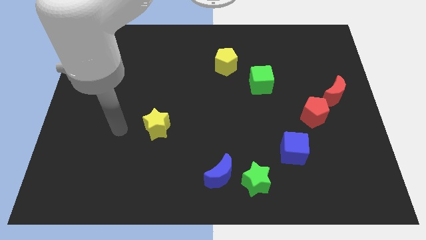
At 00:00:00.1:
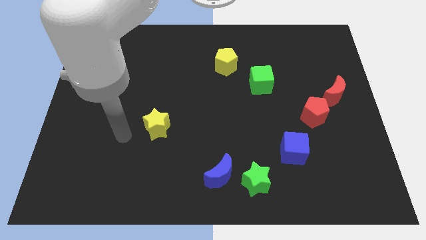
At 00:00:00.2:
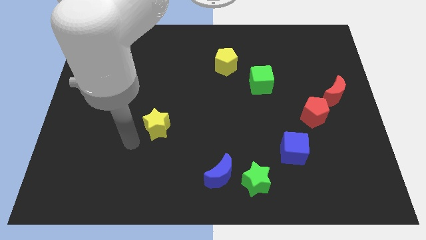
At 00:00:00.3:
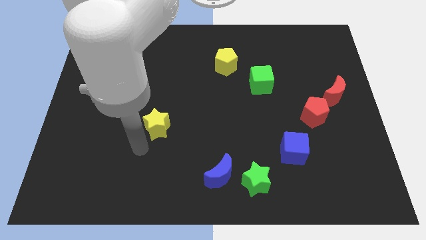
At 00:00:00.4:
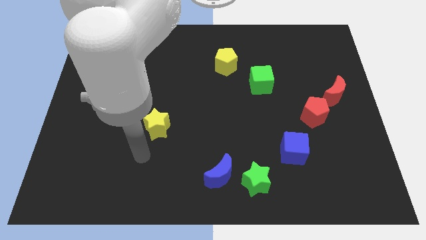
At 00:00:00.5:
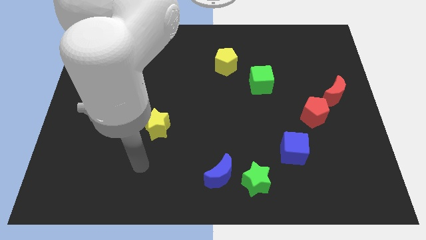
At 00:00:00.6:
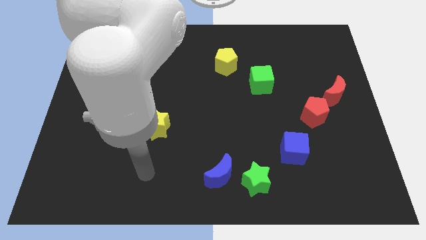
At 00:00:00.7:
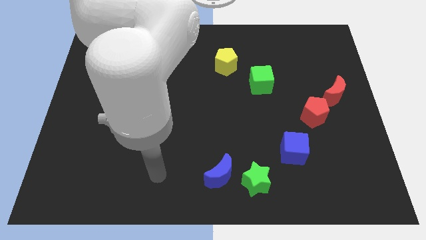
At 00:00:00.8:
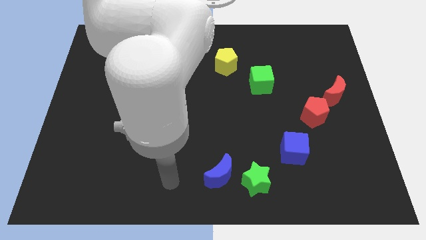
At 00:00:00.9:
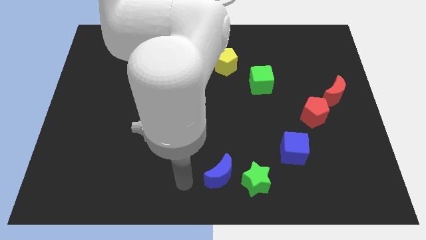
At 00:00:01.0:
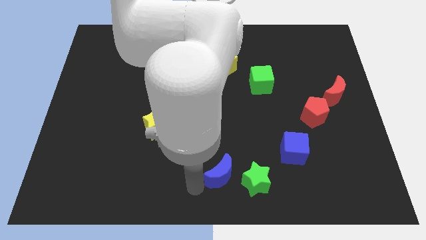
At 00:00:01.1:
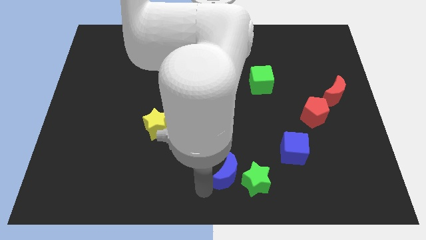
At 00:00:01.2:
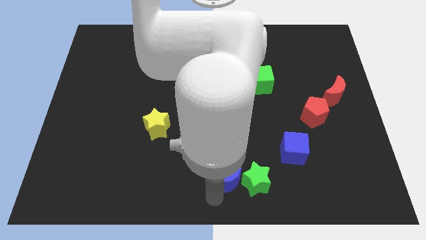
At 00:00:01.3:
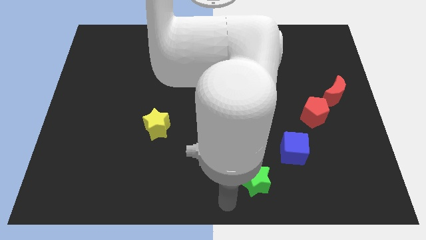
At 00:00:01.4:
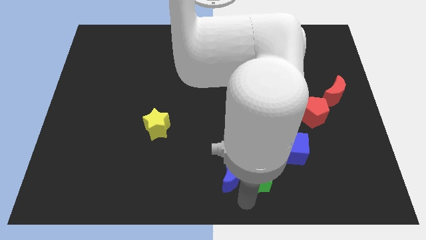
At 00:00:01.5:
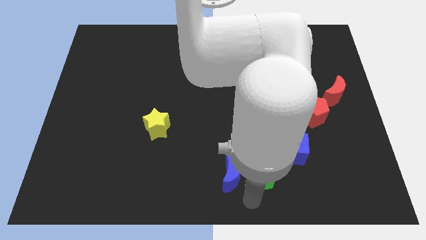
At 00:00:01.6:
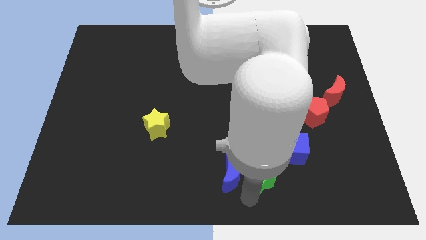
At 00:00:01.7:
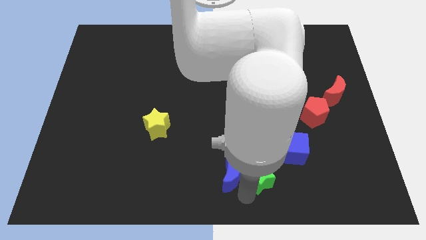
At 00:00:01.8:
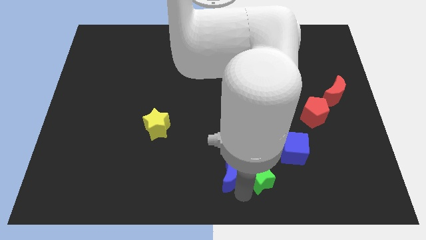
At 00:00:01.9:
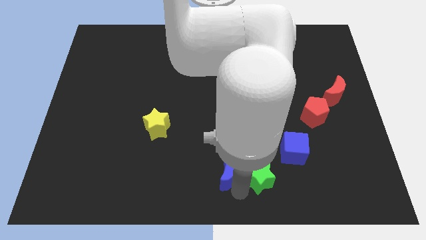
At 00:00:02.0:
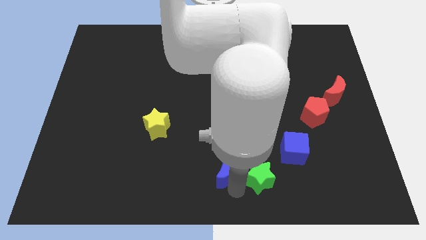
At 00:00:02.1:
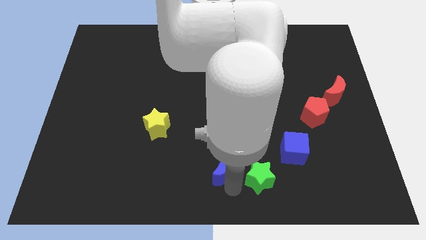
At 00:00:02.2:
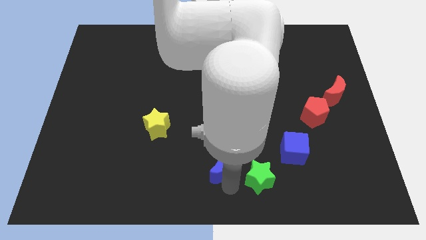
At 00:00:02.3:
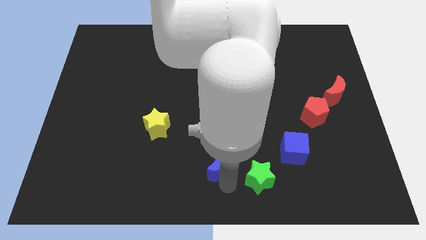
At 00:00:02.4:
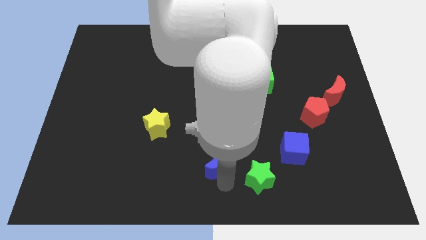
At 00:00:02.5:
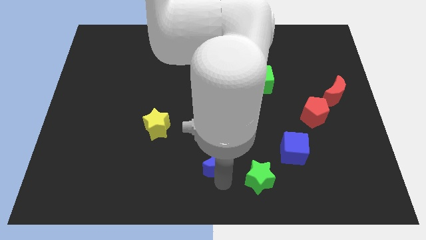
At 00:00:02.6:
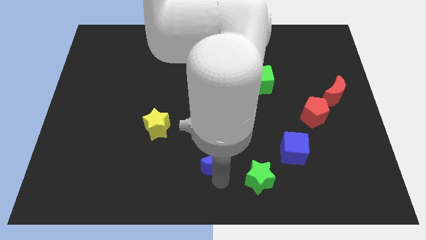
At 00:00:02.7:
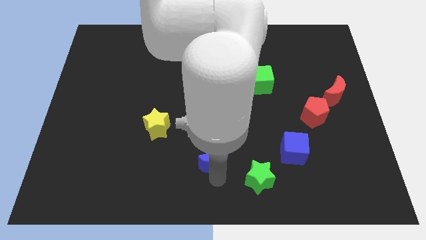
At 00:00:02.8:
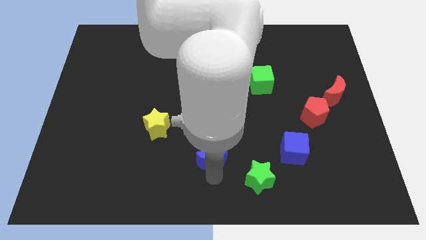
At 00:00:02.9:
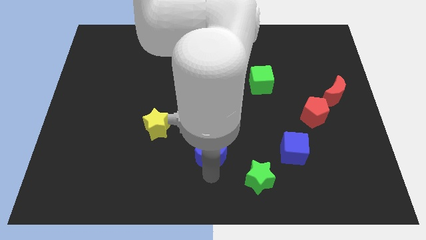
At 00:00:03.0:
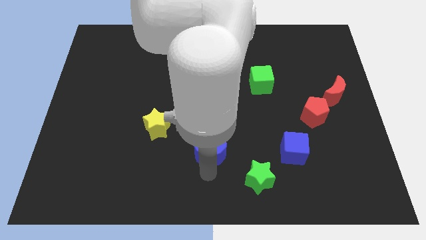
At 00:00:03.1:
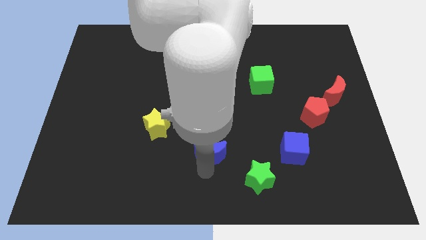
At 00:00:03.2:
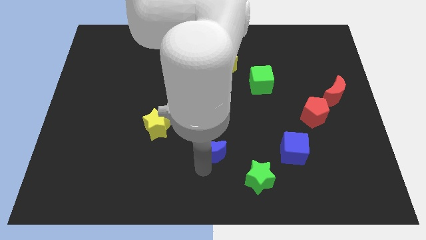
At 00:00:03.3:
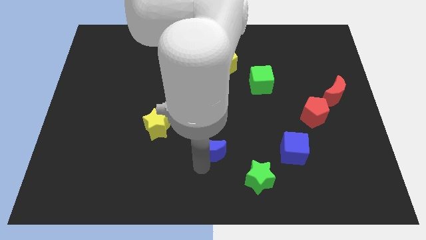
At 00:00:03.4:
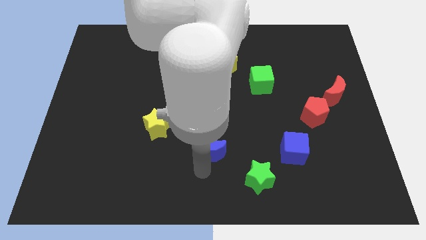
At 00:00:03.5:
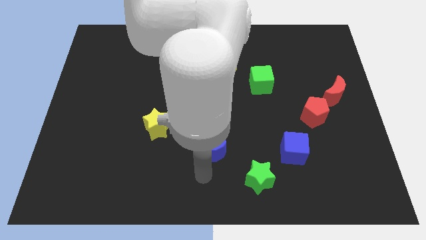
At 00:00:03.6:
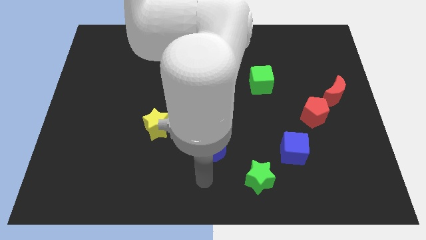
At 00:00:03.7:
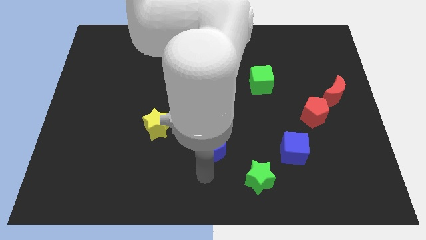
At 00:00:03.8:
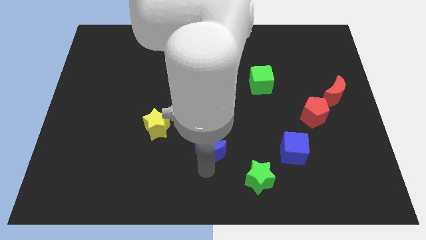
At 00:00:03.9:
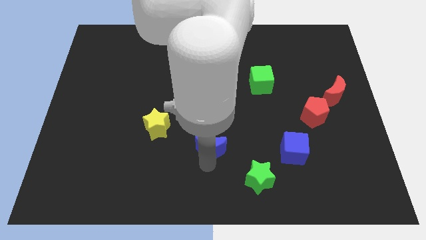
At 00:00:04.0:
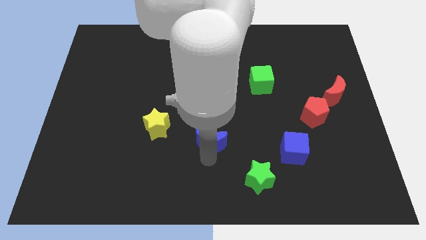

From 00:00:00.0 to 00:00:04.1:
push the blue moon up a little

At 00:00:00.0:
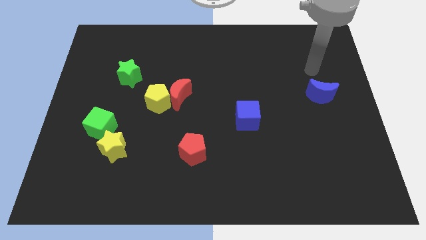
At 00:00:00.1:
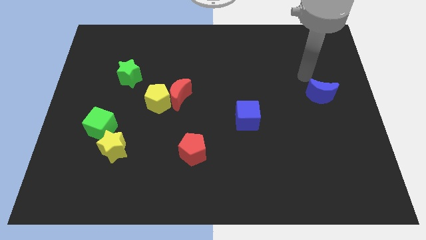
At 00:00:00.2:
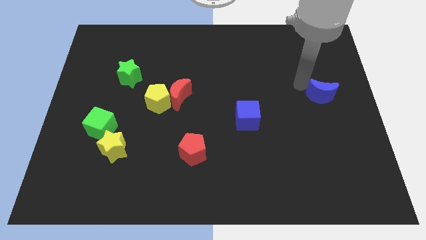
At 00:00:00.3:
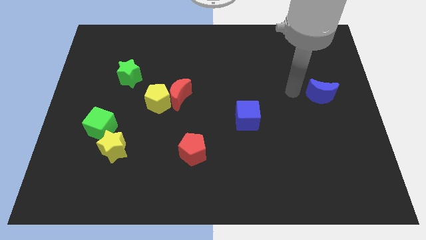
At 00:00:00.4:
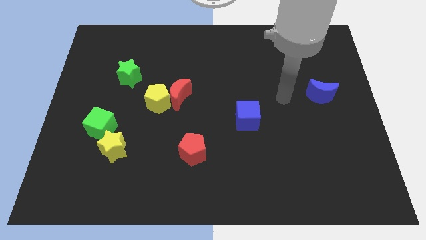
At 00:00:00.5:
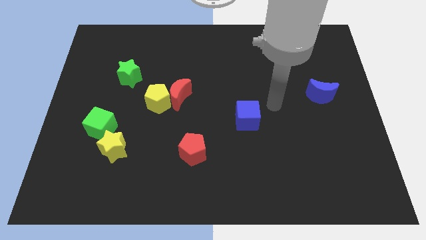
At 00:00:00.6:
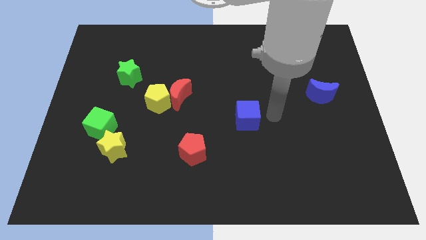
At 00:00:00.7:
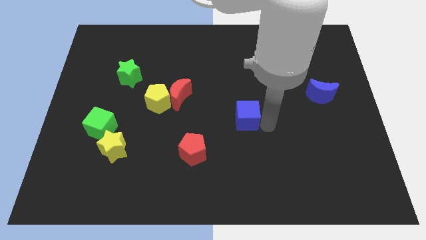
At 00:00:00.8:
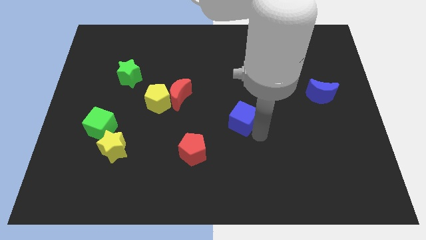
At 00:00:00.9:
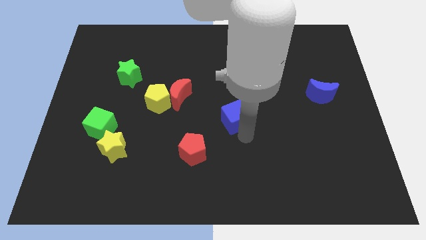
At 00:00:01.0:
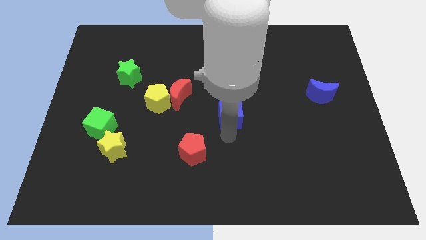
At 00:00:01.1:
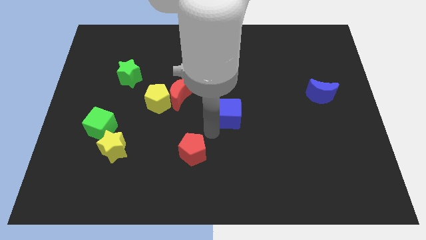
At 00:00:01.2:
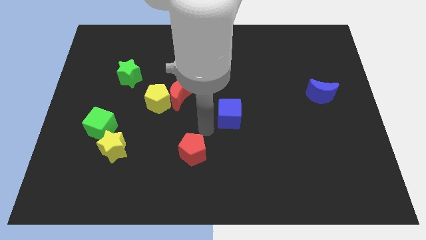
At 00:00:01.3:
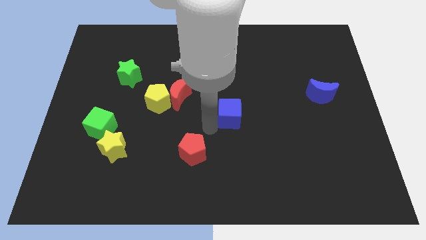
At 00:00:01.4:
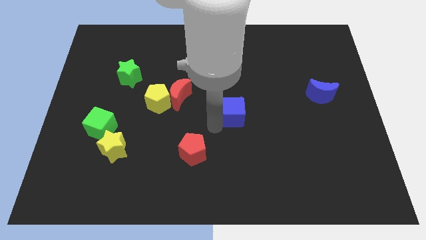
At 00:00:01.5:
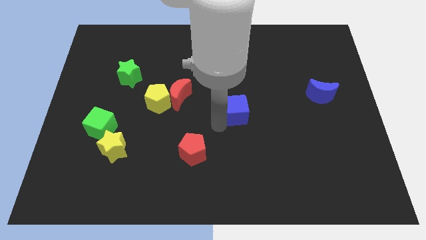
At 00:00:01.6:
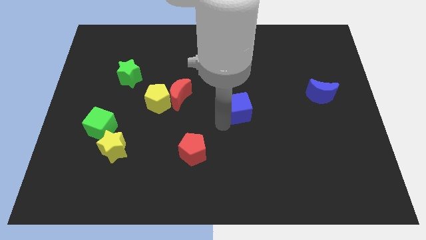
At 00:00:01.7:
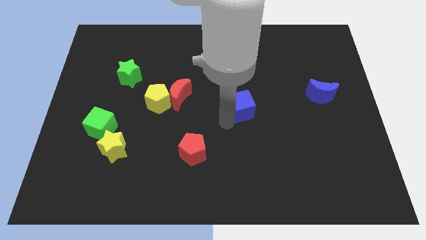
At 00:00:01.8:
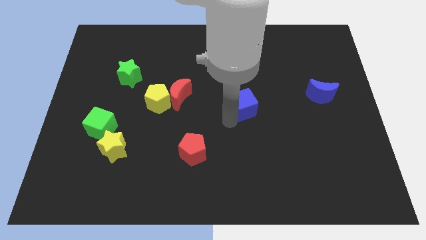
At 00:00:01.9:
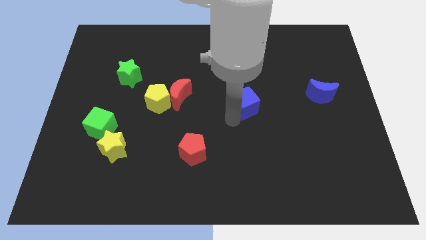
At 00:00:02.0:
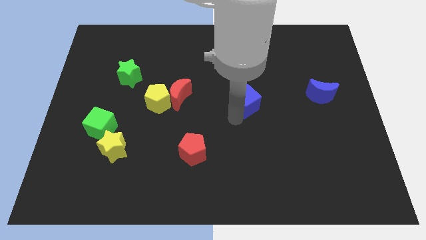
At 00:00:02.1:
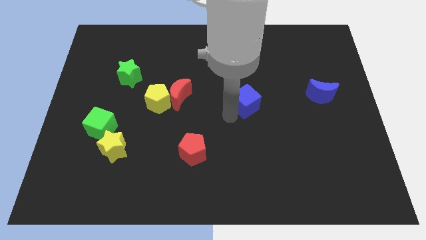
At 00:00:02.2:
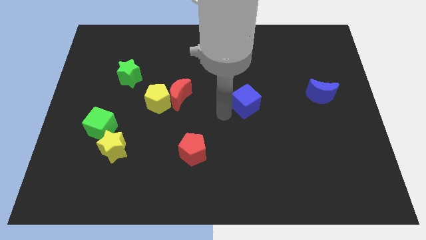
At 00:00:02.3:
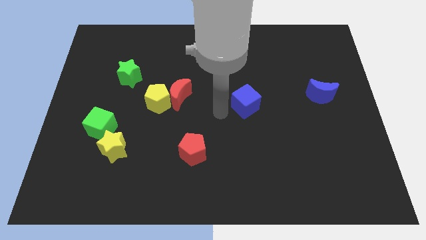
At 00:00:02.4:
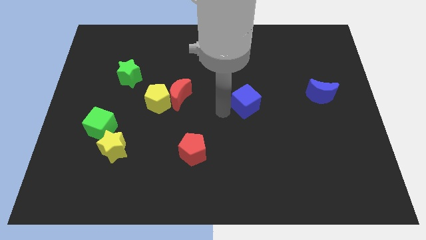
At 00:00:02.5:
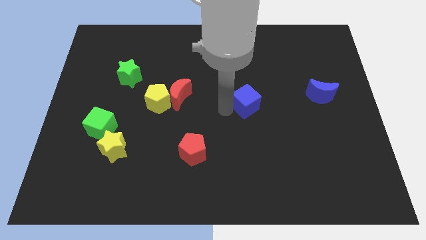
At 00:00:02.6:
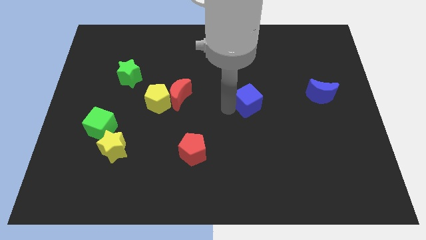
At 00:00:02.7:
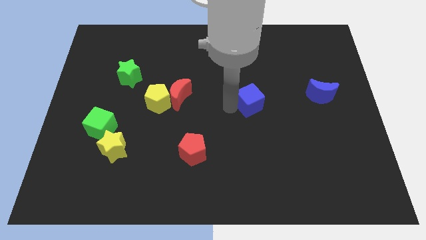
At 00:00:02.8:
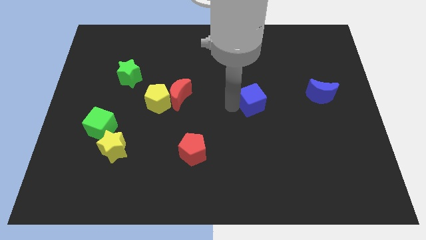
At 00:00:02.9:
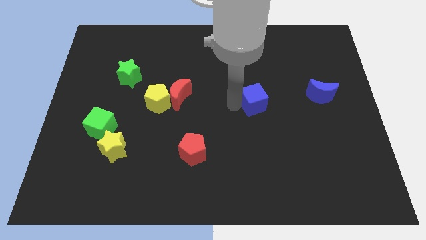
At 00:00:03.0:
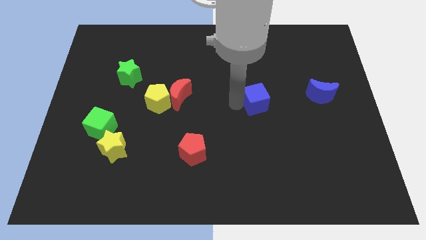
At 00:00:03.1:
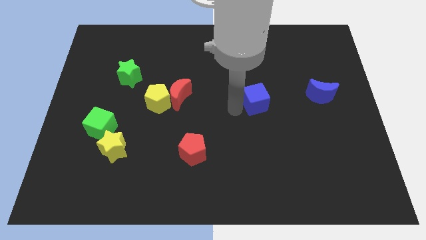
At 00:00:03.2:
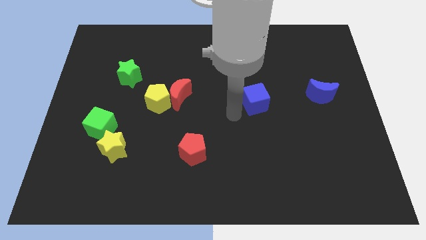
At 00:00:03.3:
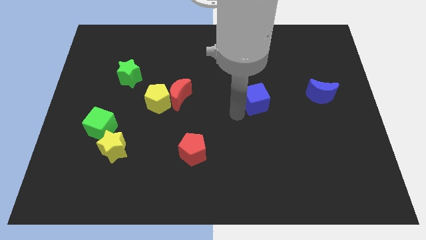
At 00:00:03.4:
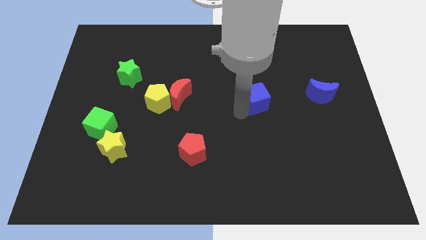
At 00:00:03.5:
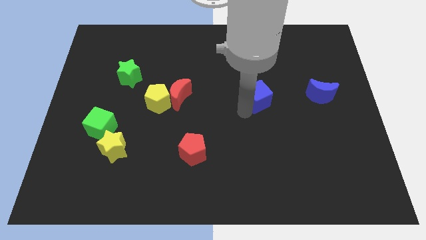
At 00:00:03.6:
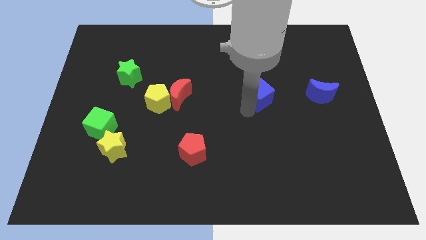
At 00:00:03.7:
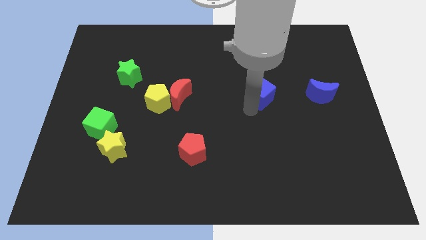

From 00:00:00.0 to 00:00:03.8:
slightly move the blue cube upwards and to the right diagonally

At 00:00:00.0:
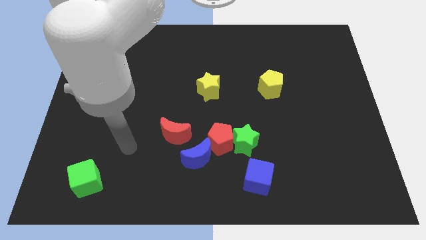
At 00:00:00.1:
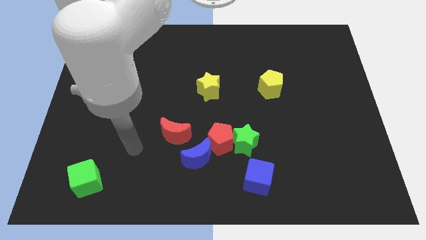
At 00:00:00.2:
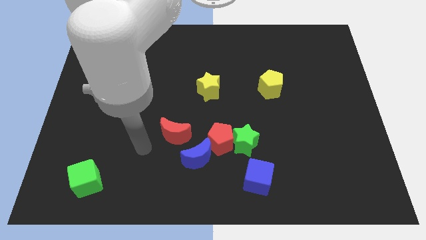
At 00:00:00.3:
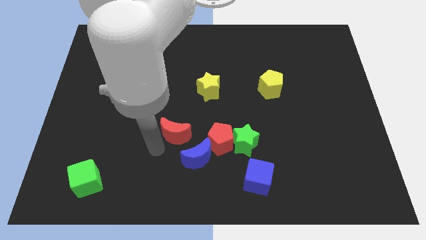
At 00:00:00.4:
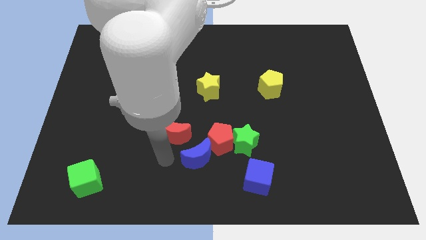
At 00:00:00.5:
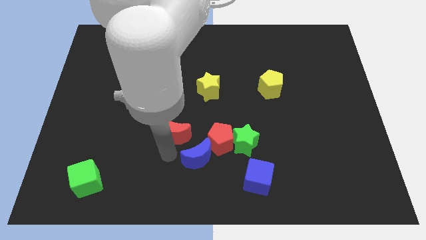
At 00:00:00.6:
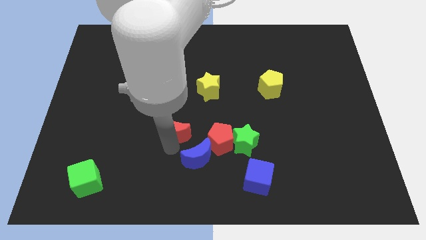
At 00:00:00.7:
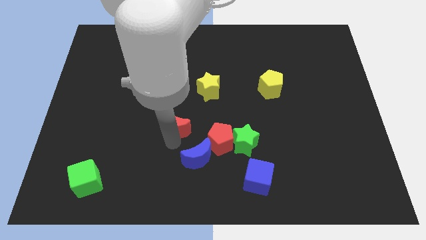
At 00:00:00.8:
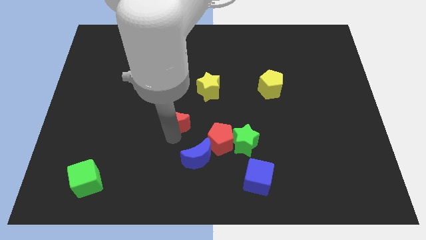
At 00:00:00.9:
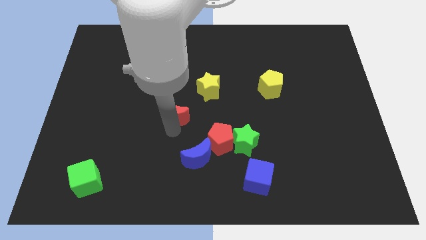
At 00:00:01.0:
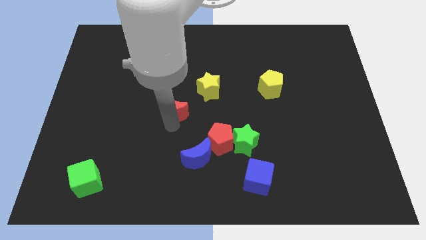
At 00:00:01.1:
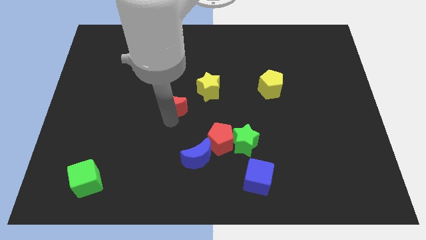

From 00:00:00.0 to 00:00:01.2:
move the red moon a little up
